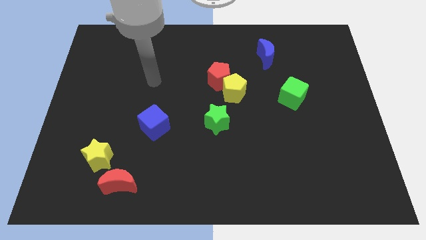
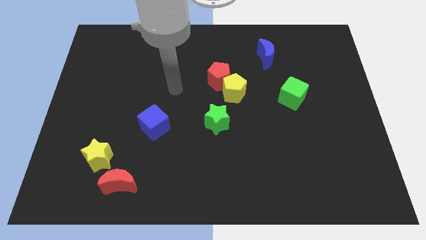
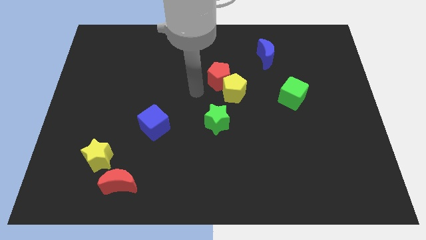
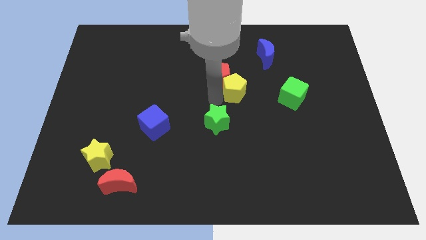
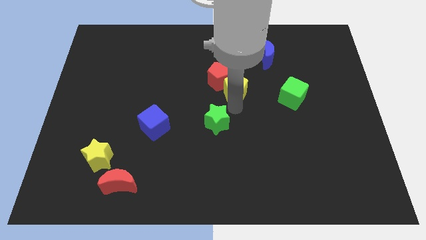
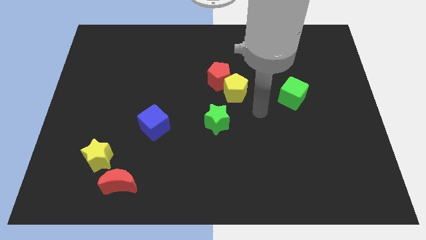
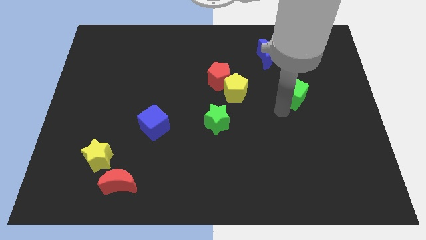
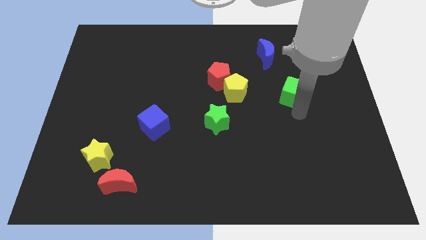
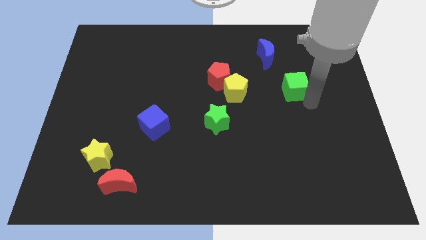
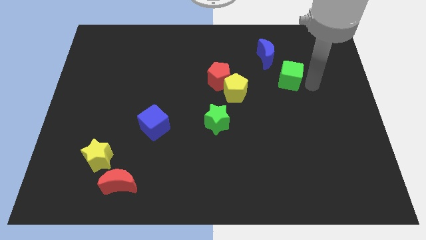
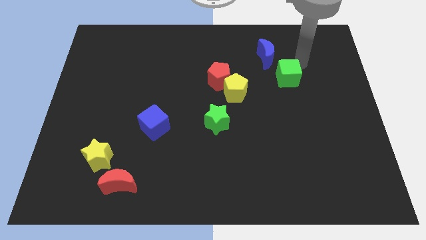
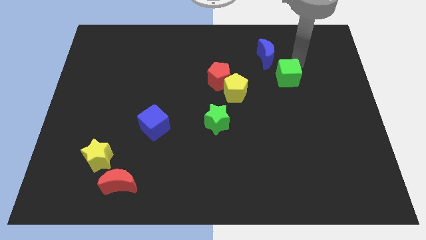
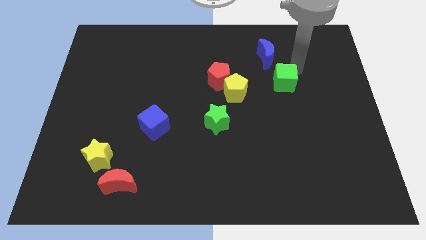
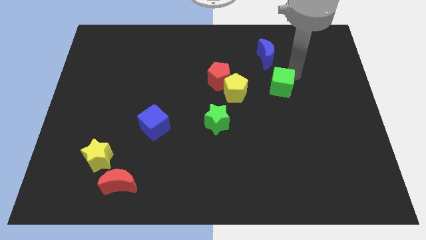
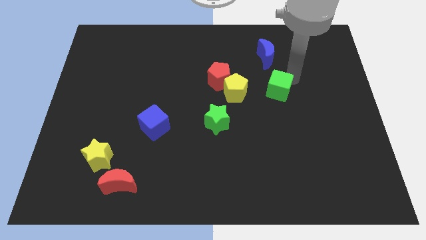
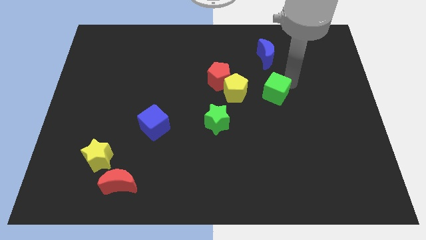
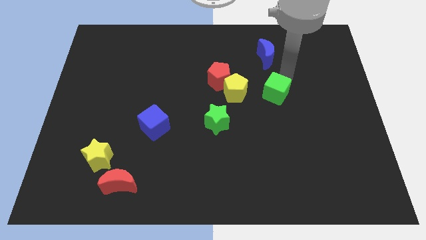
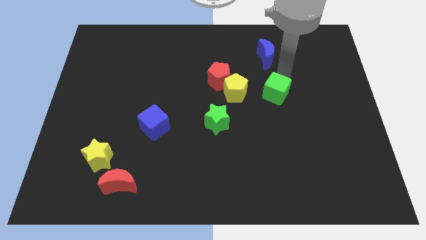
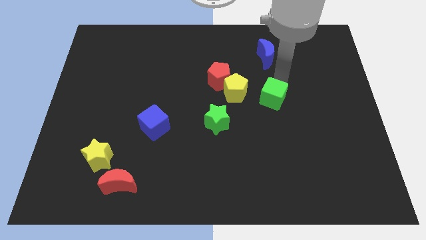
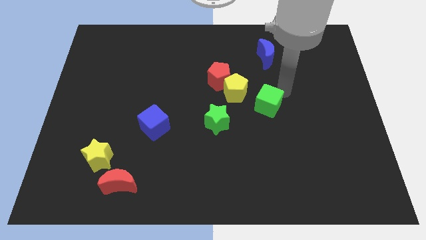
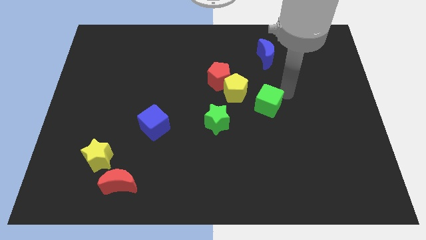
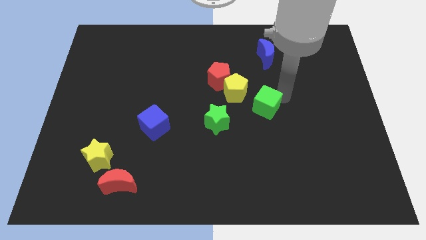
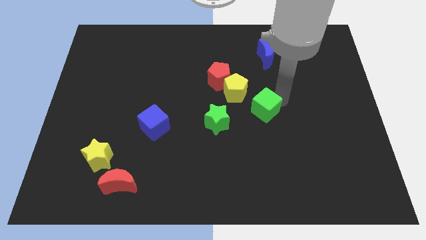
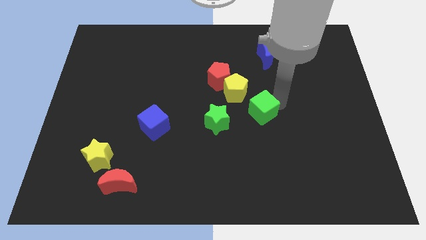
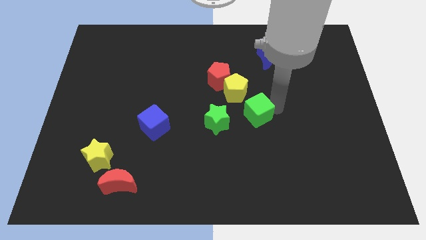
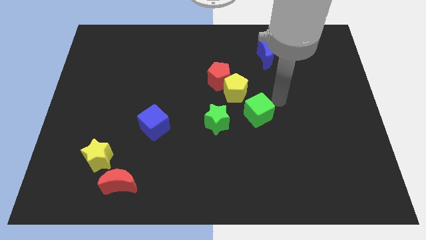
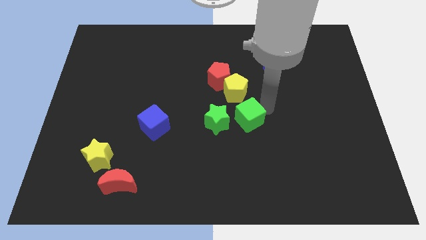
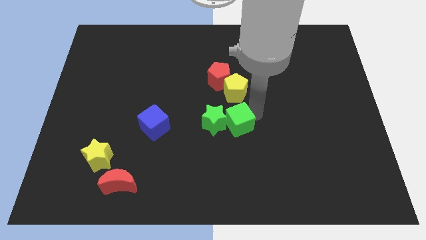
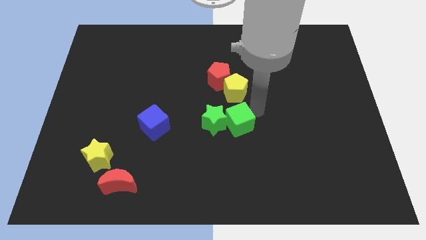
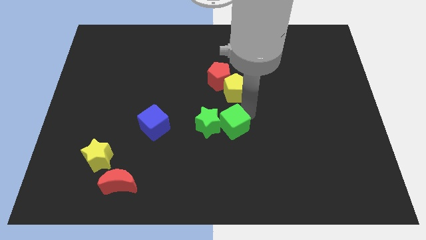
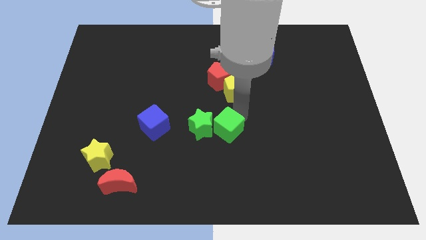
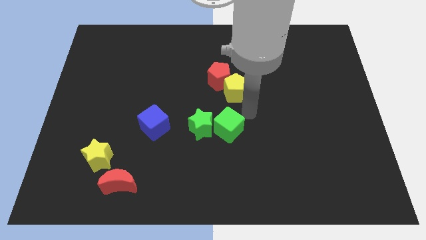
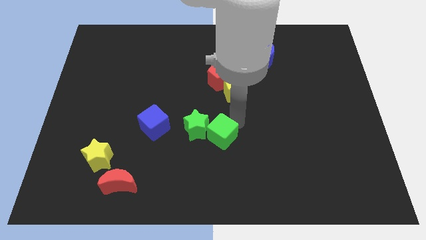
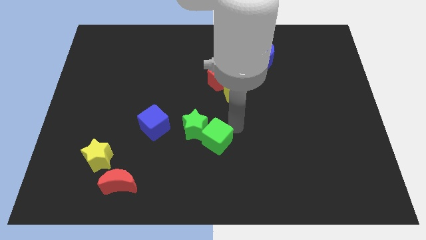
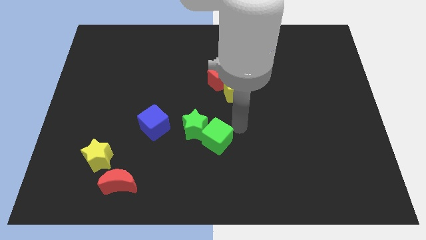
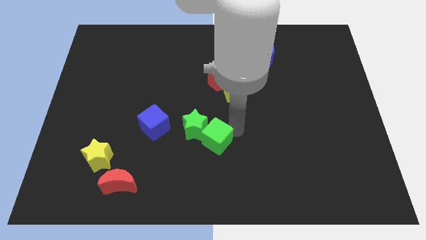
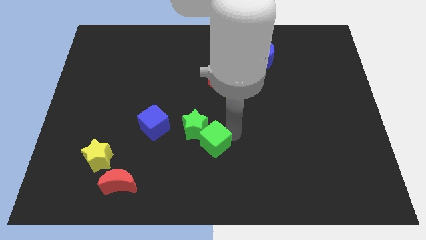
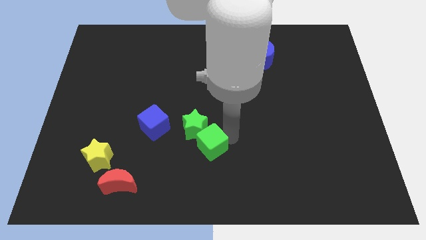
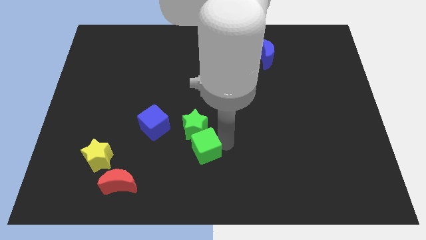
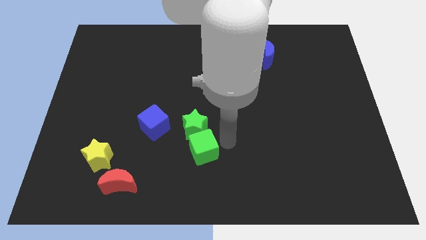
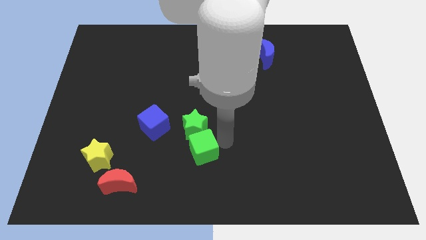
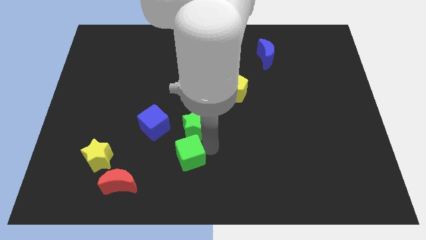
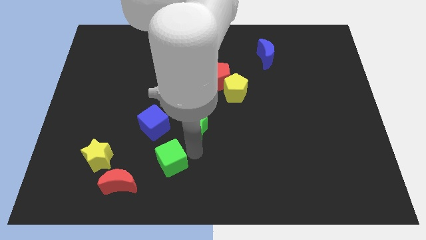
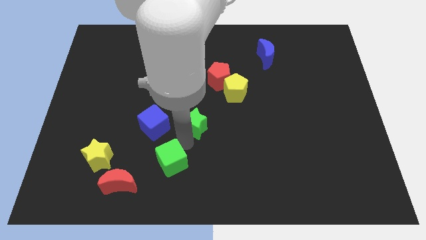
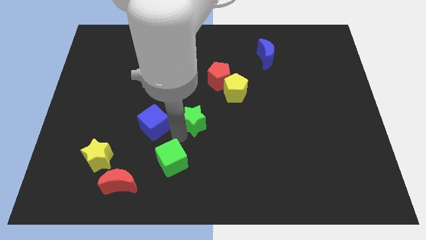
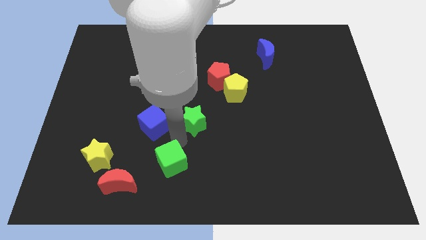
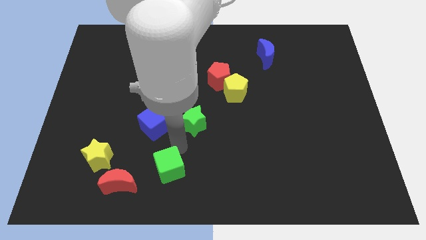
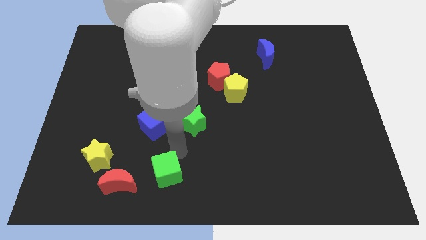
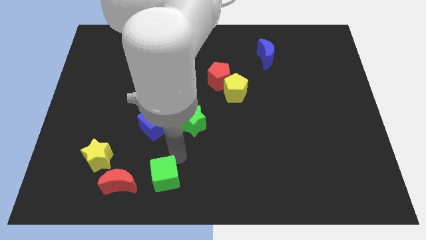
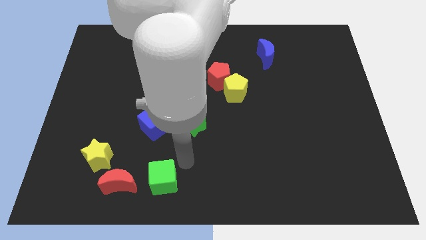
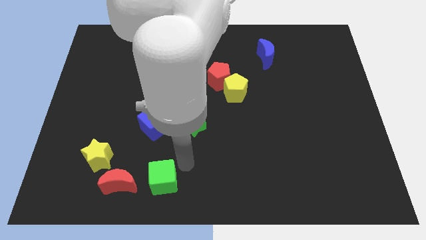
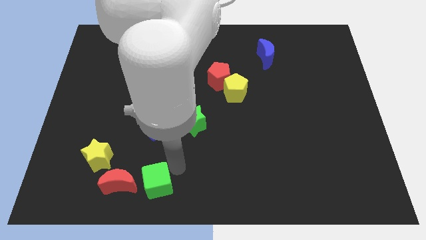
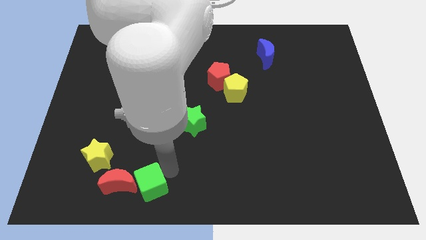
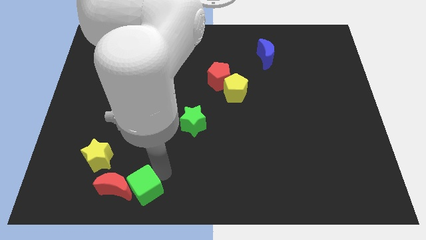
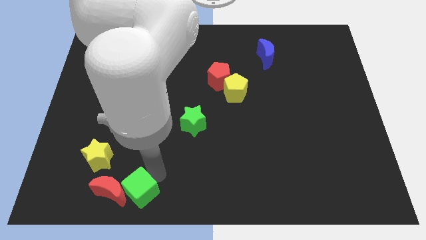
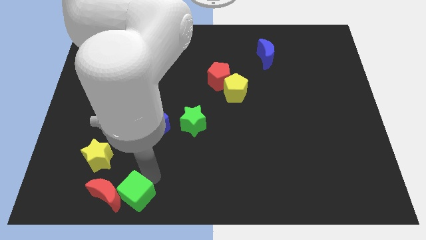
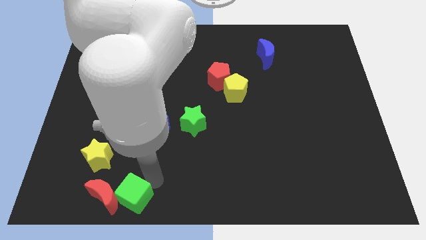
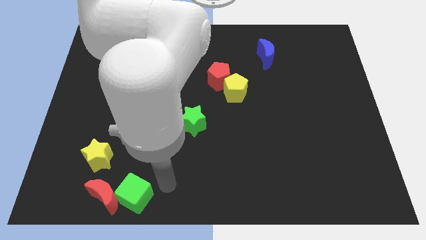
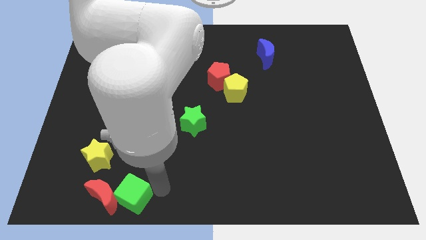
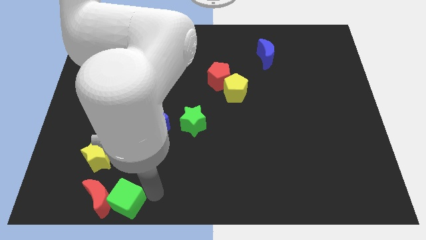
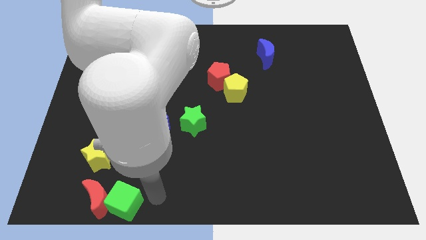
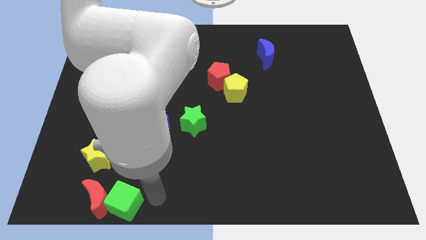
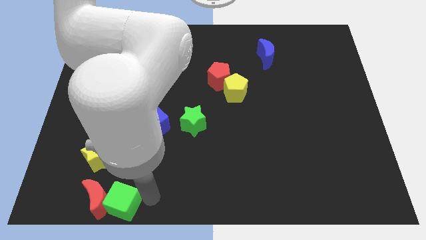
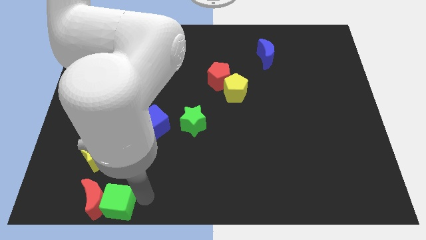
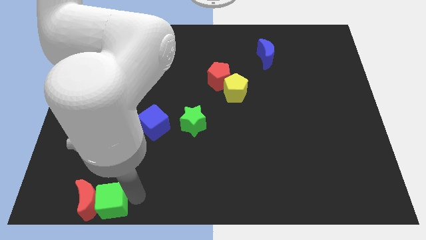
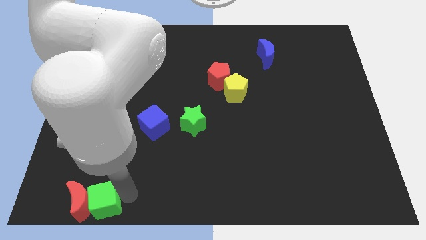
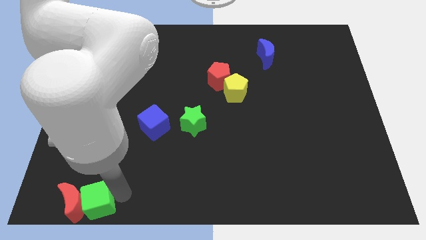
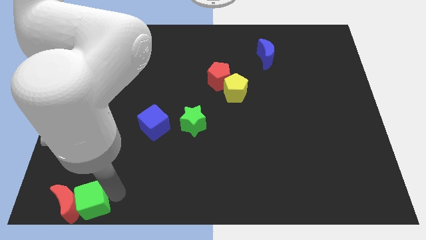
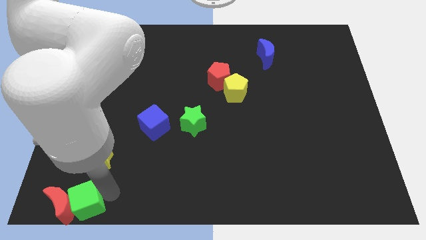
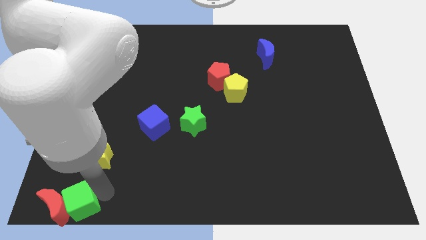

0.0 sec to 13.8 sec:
slide the green cube to the bottom left corner
